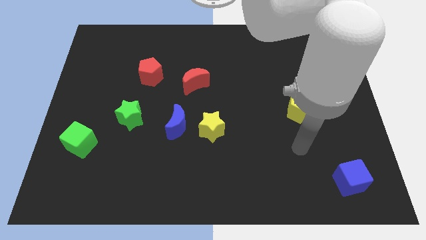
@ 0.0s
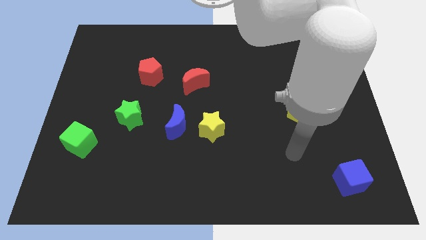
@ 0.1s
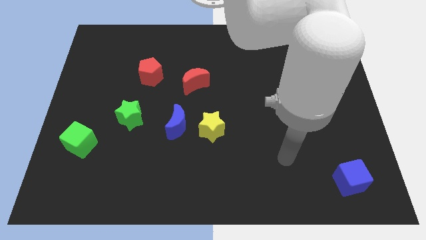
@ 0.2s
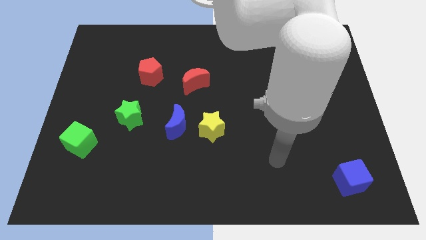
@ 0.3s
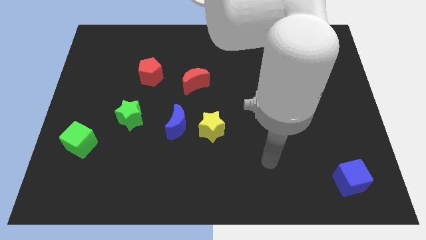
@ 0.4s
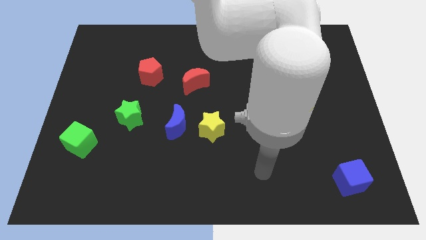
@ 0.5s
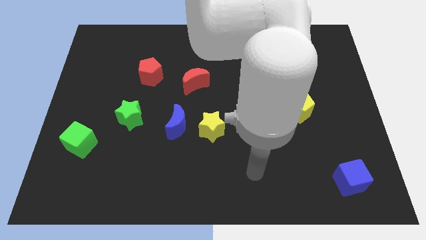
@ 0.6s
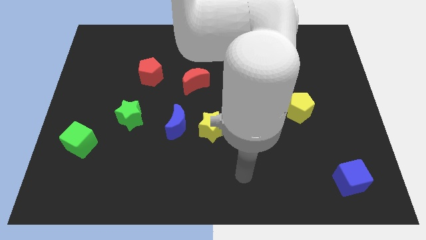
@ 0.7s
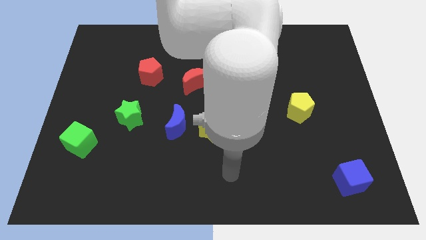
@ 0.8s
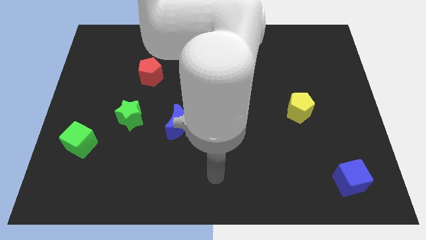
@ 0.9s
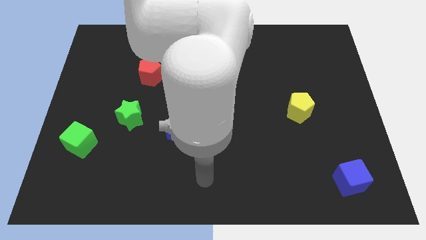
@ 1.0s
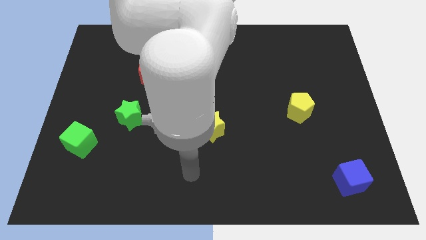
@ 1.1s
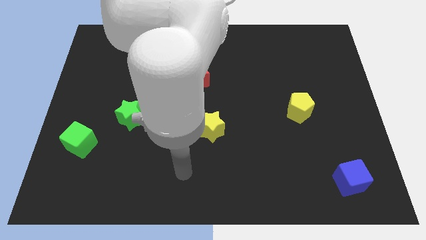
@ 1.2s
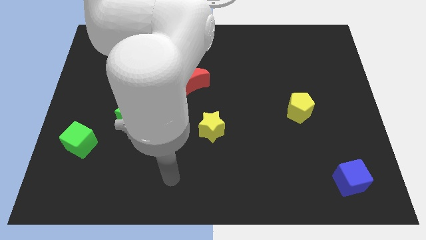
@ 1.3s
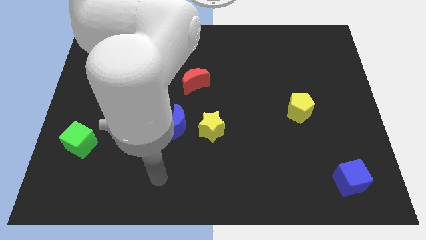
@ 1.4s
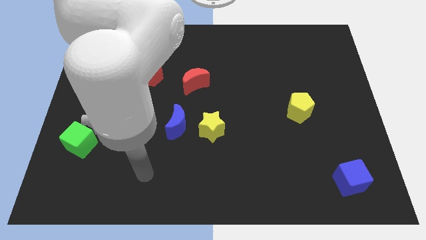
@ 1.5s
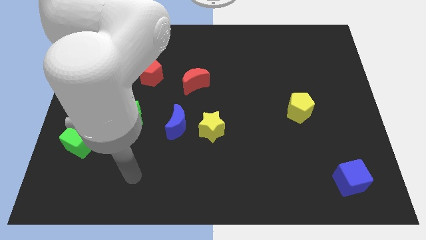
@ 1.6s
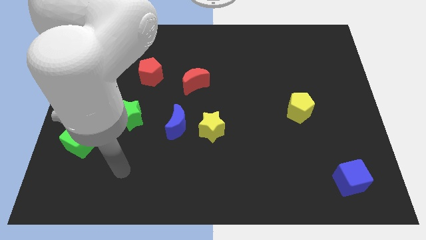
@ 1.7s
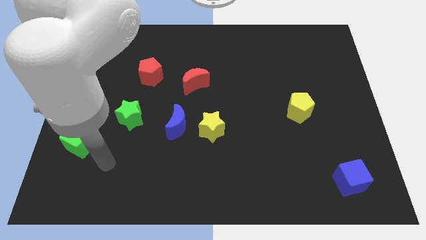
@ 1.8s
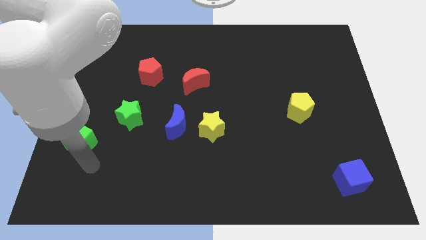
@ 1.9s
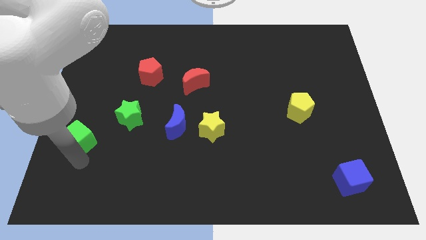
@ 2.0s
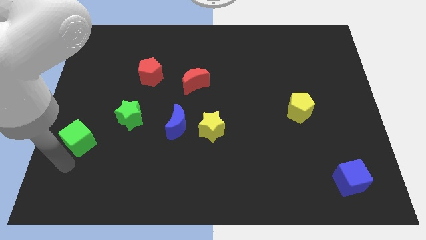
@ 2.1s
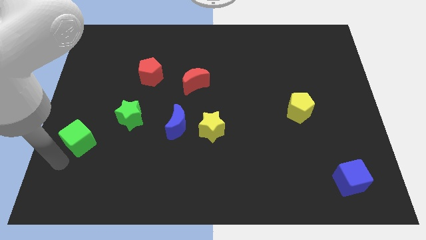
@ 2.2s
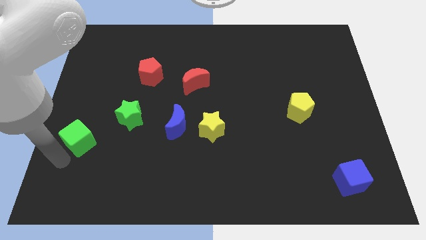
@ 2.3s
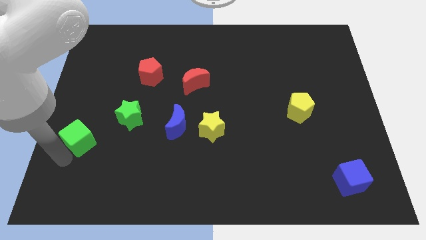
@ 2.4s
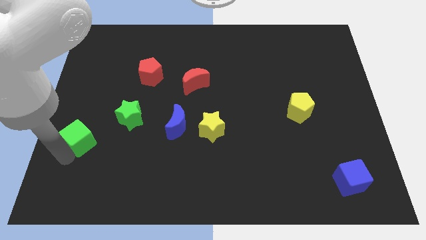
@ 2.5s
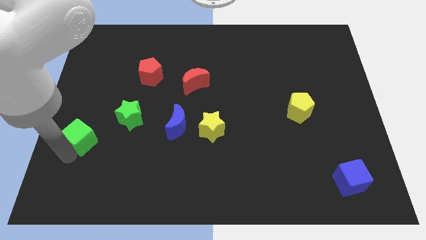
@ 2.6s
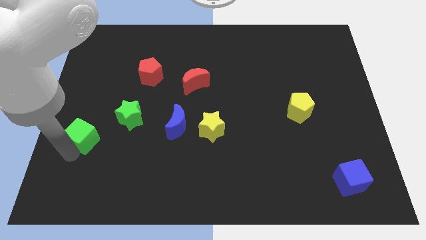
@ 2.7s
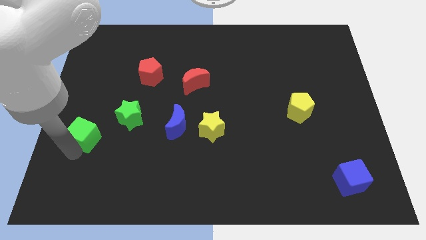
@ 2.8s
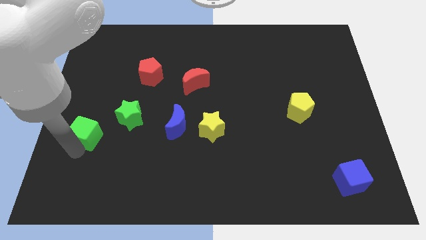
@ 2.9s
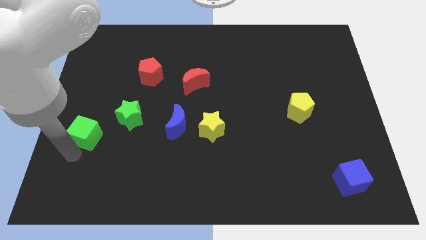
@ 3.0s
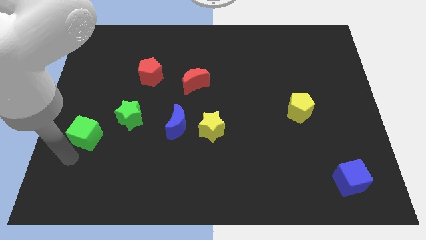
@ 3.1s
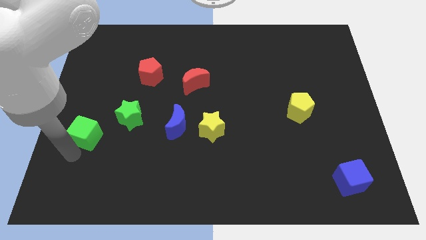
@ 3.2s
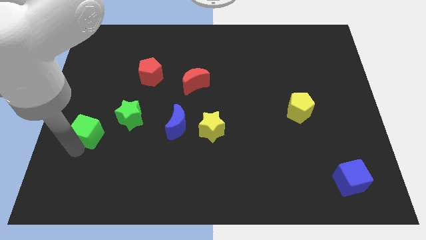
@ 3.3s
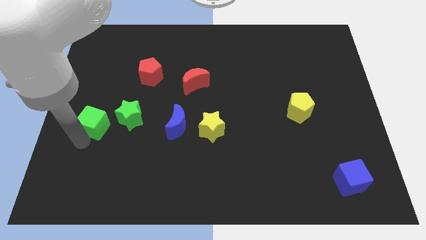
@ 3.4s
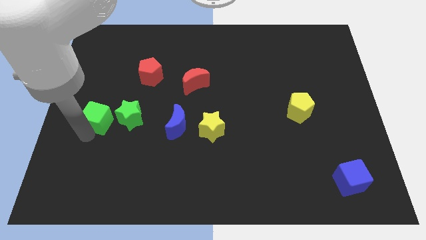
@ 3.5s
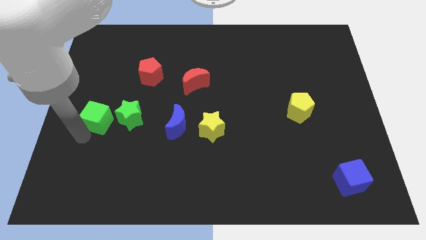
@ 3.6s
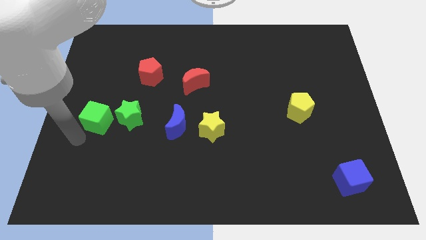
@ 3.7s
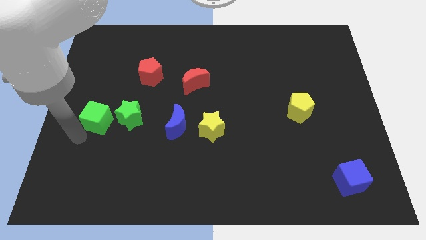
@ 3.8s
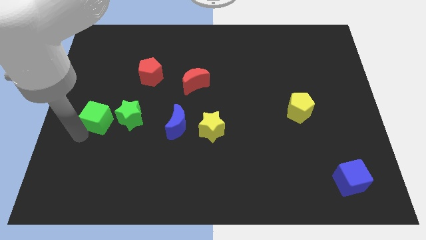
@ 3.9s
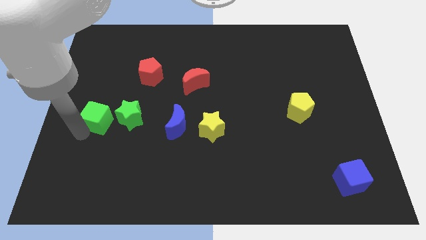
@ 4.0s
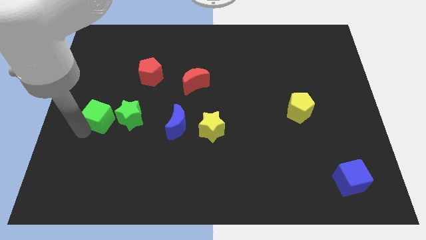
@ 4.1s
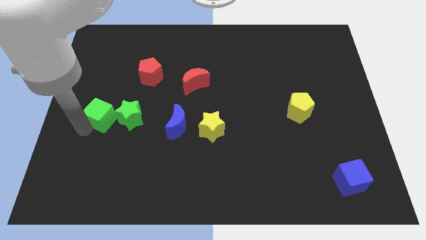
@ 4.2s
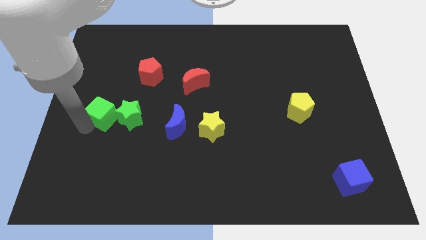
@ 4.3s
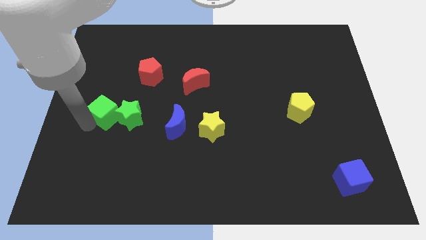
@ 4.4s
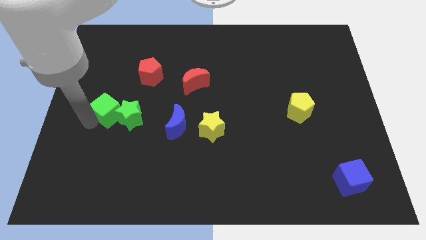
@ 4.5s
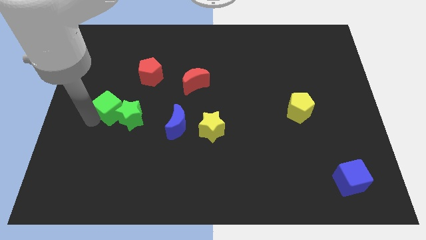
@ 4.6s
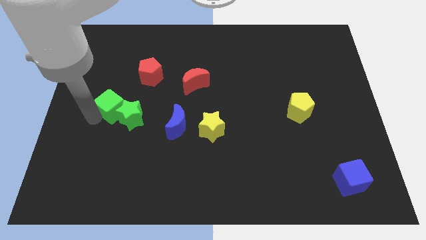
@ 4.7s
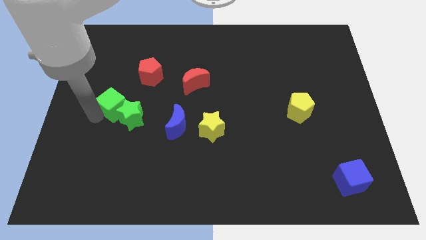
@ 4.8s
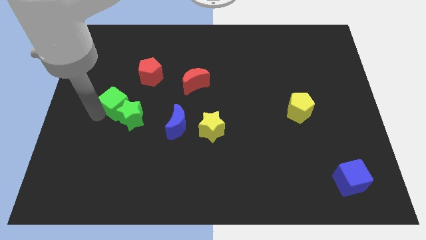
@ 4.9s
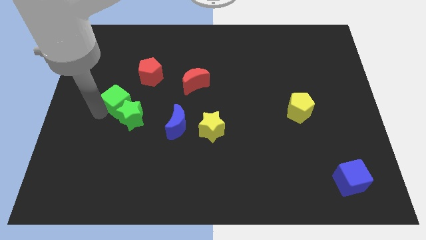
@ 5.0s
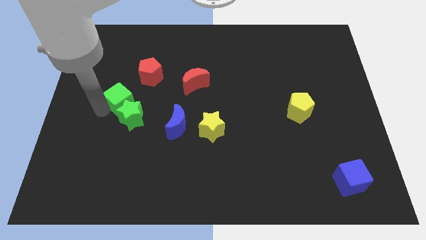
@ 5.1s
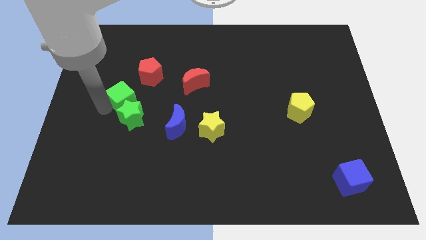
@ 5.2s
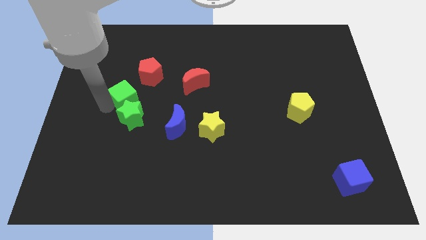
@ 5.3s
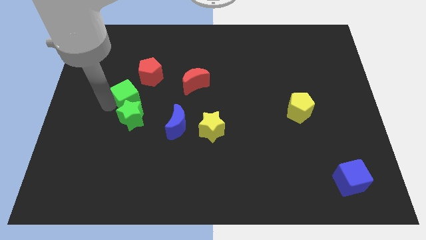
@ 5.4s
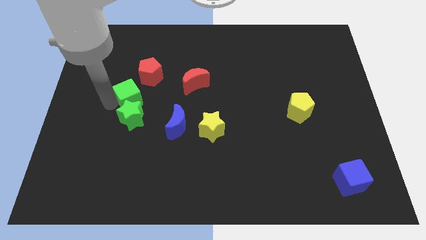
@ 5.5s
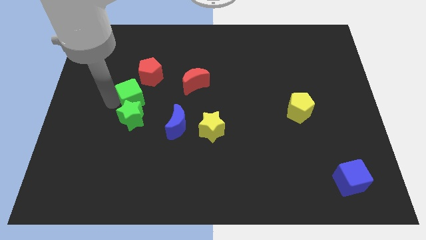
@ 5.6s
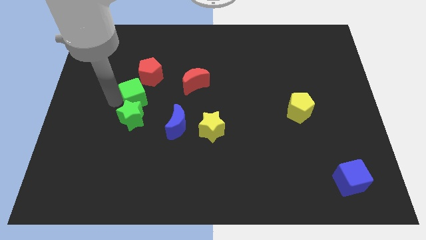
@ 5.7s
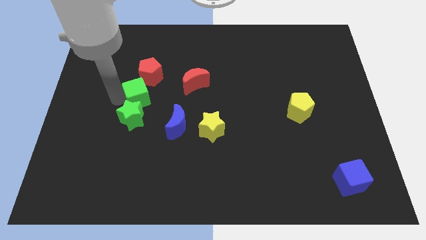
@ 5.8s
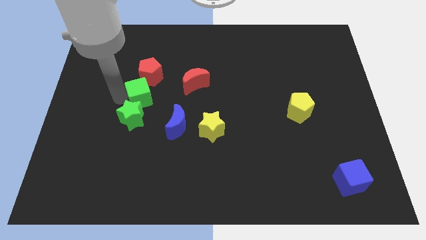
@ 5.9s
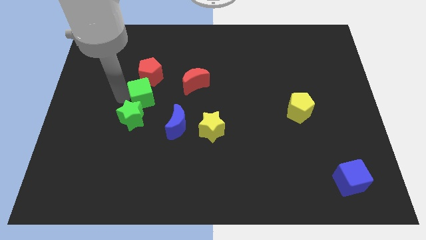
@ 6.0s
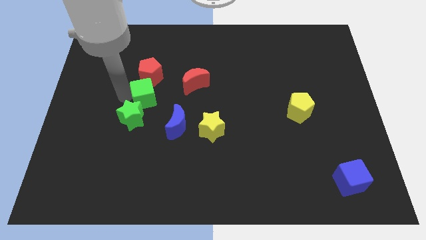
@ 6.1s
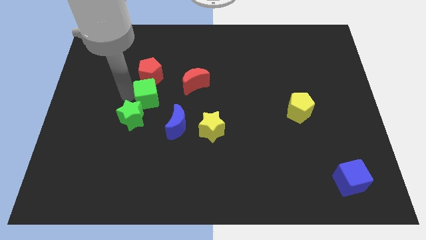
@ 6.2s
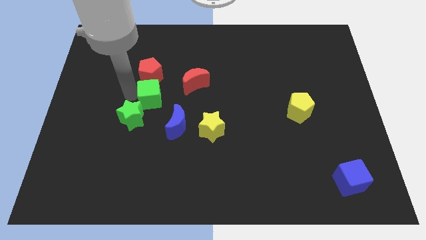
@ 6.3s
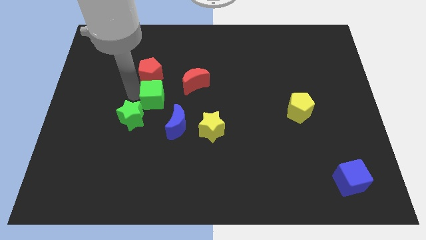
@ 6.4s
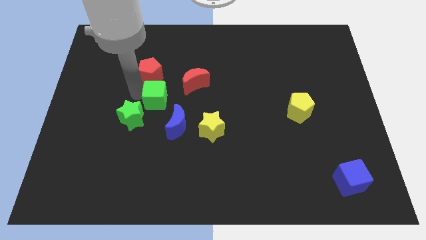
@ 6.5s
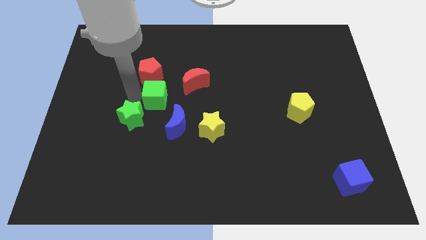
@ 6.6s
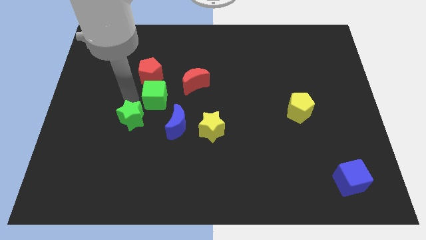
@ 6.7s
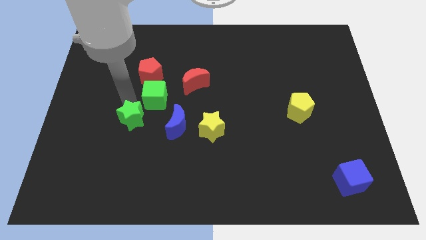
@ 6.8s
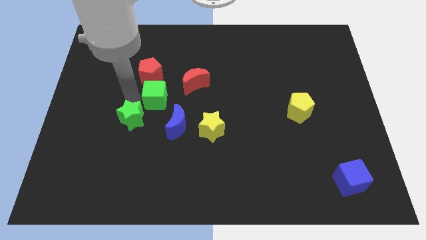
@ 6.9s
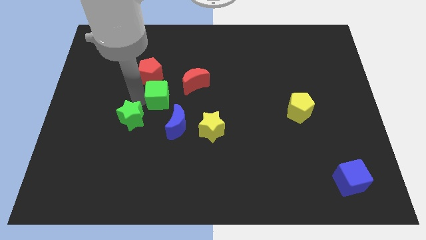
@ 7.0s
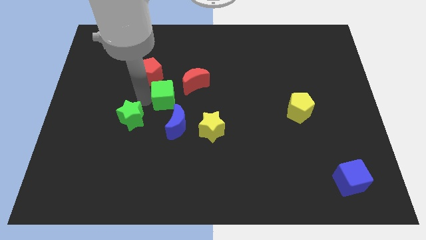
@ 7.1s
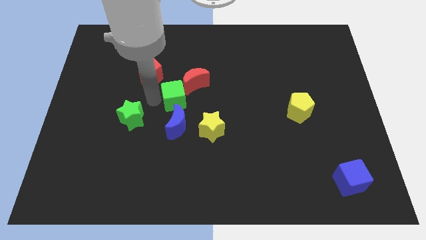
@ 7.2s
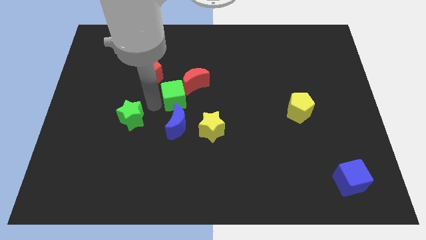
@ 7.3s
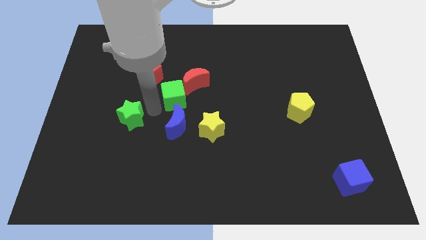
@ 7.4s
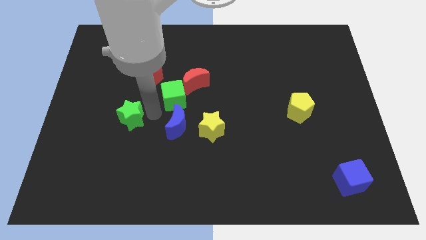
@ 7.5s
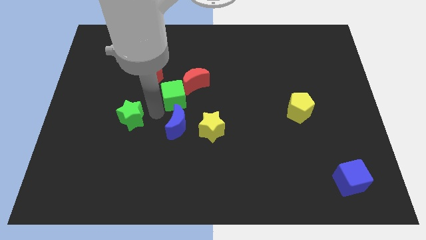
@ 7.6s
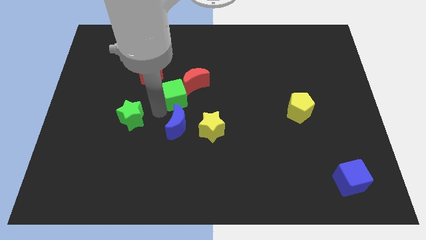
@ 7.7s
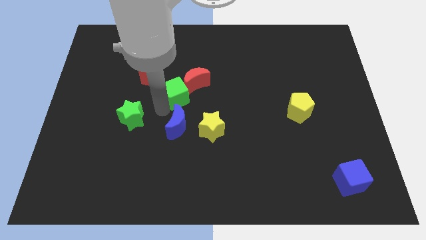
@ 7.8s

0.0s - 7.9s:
push the green cube next to the red moon
